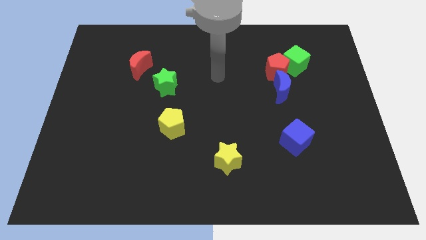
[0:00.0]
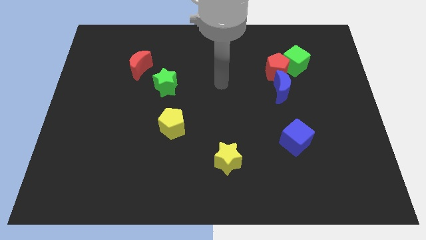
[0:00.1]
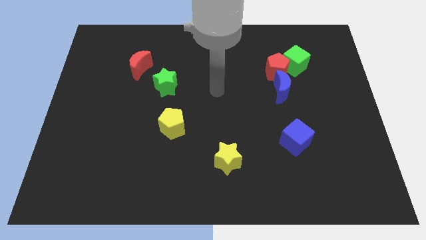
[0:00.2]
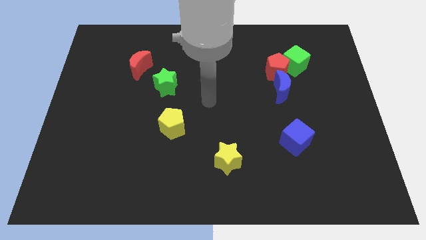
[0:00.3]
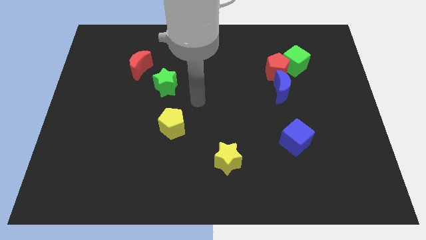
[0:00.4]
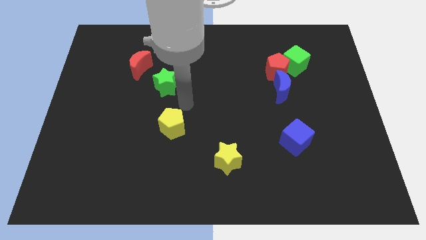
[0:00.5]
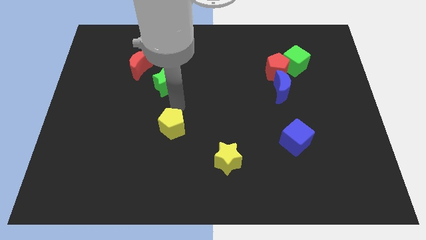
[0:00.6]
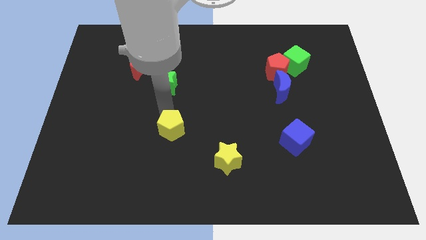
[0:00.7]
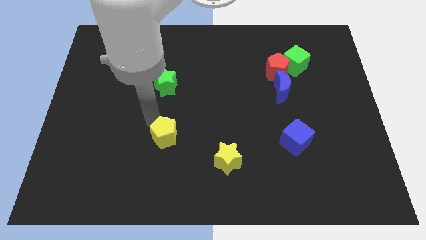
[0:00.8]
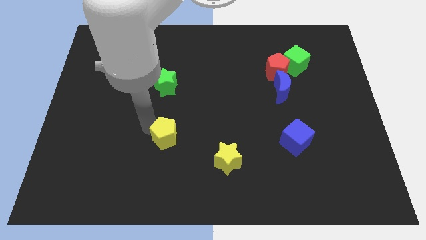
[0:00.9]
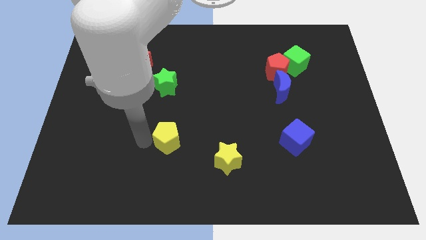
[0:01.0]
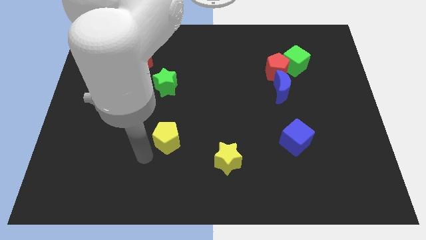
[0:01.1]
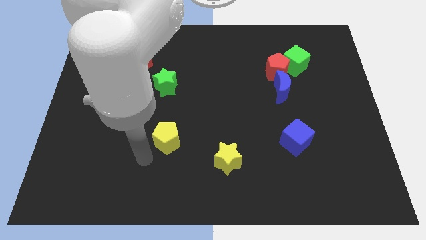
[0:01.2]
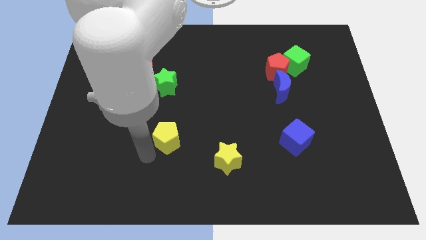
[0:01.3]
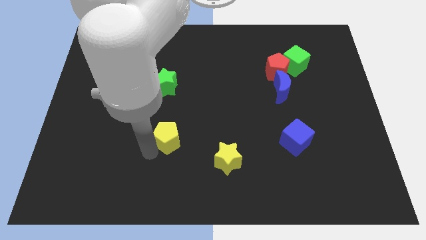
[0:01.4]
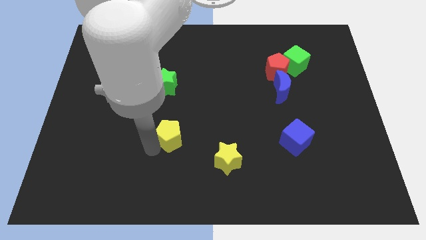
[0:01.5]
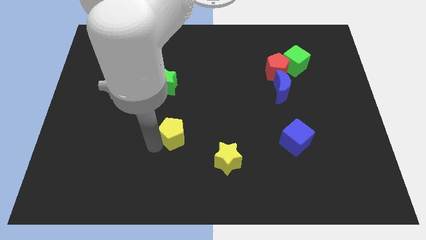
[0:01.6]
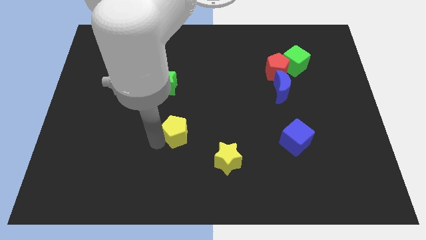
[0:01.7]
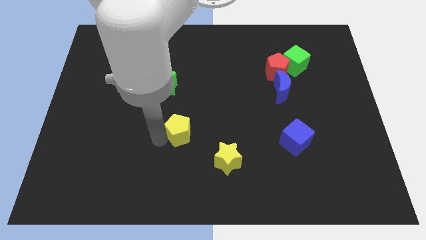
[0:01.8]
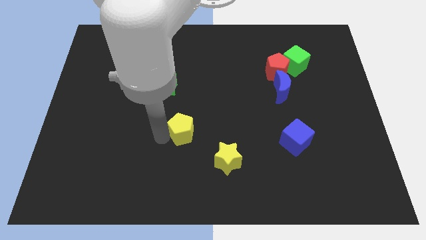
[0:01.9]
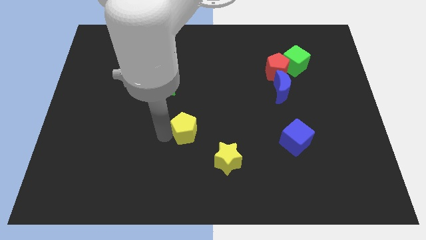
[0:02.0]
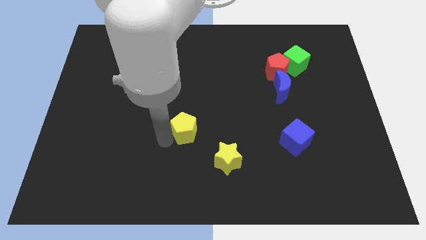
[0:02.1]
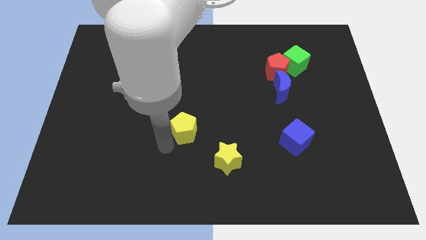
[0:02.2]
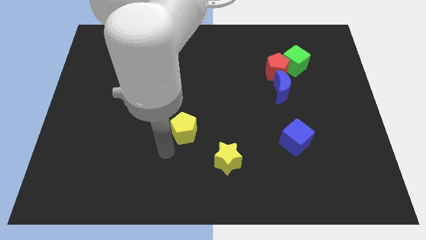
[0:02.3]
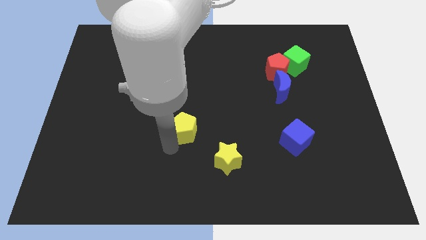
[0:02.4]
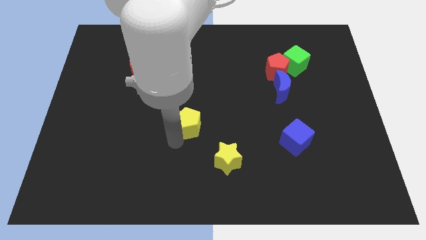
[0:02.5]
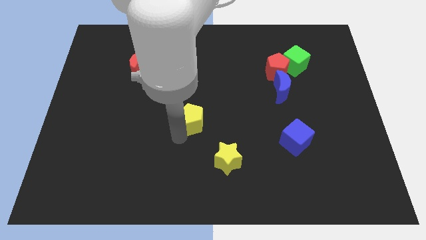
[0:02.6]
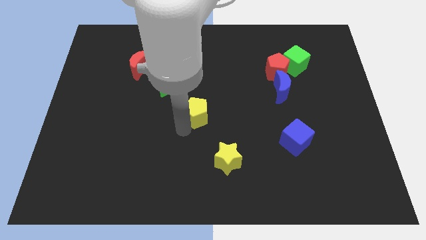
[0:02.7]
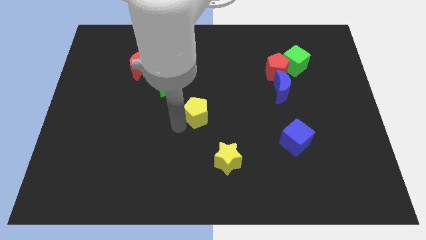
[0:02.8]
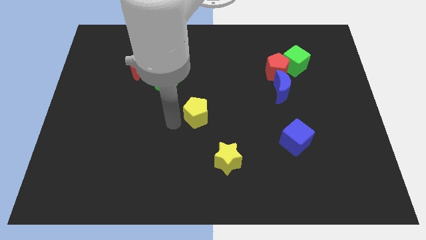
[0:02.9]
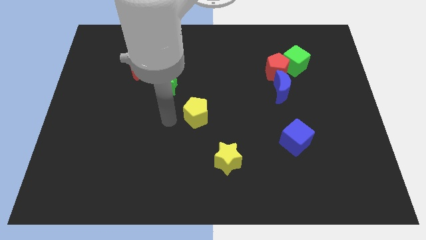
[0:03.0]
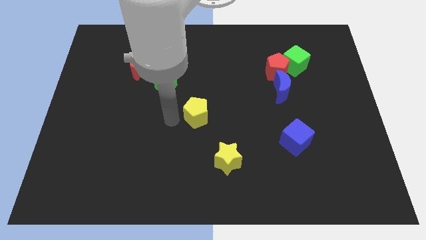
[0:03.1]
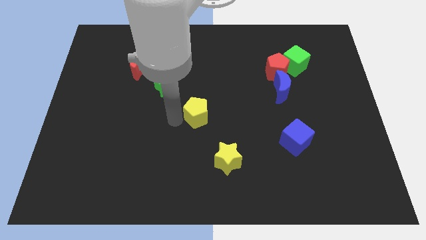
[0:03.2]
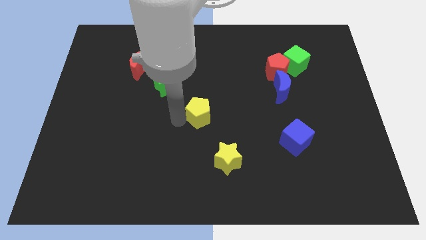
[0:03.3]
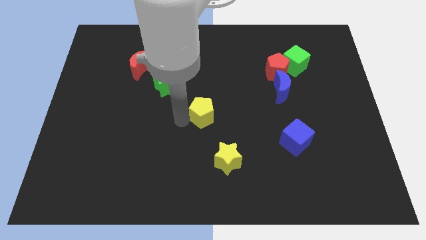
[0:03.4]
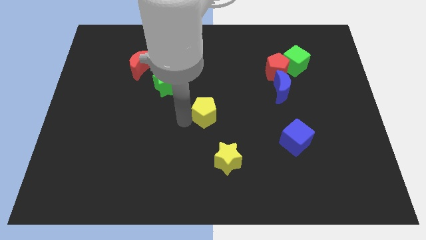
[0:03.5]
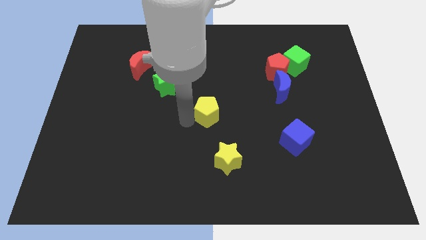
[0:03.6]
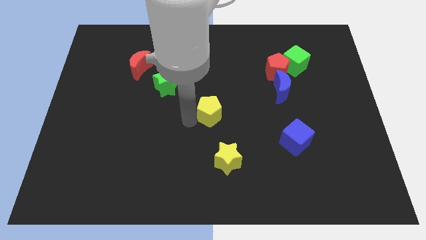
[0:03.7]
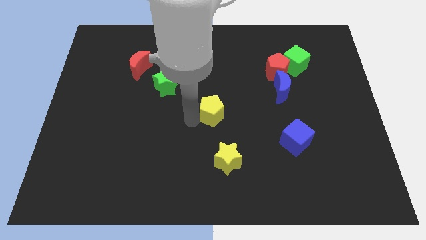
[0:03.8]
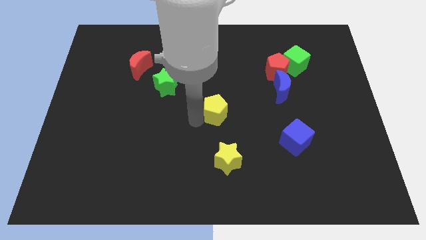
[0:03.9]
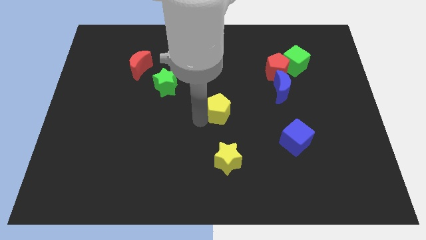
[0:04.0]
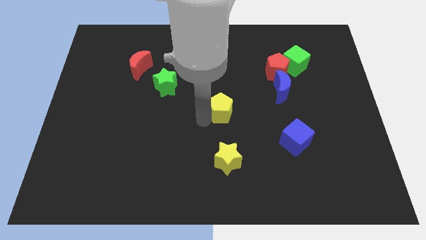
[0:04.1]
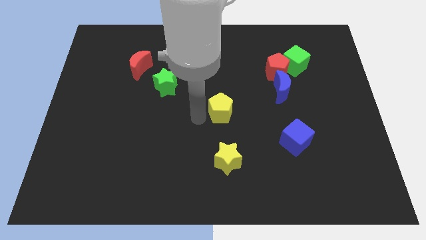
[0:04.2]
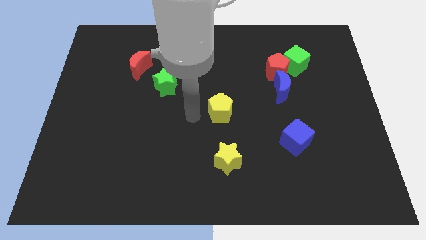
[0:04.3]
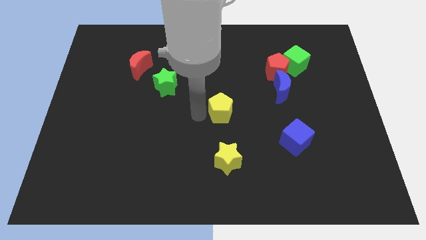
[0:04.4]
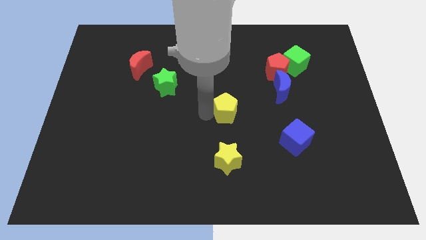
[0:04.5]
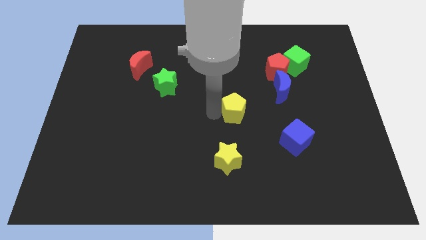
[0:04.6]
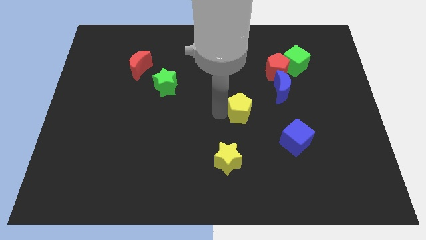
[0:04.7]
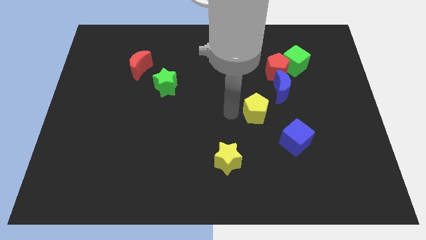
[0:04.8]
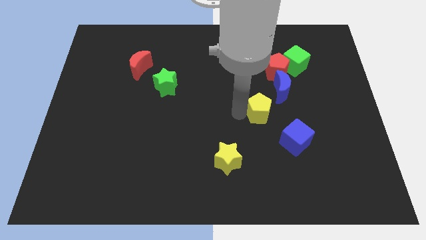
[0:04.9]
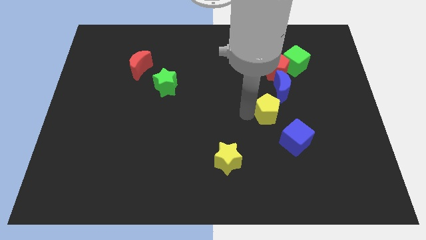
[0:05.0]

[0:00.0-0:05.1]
put the yellow pentagon to the bottom side of the red pentagon

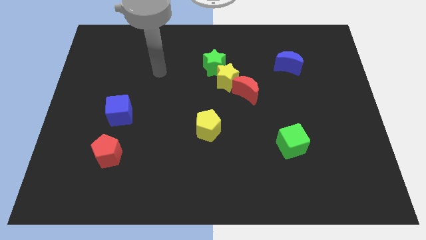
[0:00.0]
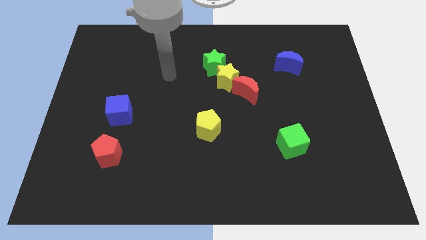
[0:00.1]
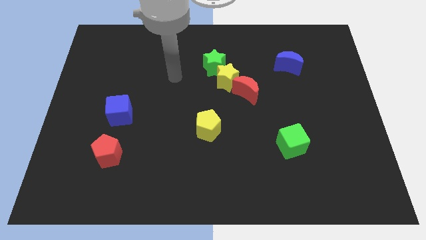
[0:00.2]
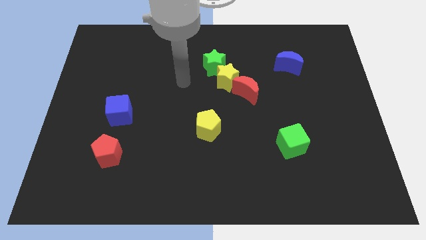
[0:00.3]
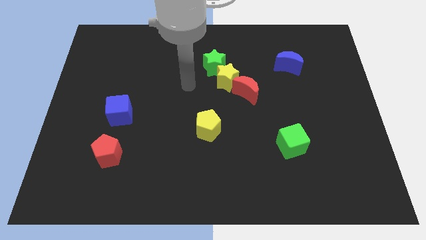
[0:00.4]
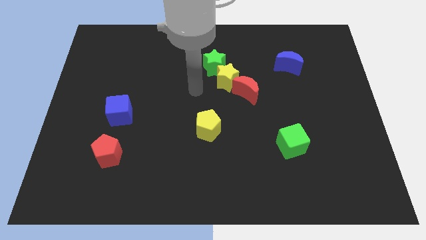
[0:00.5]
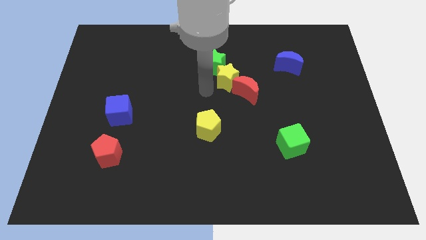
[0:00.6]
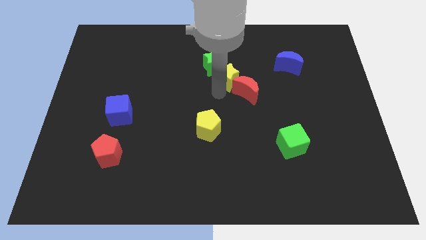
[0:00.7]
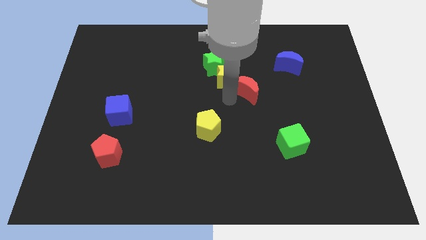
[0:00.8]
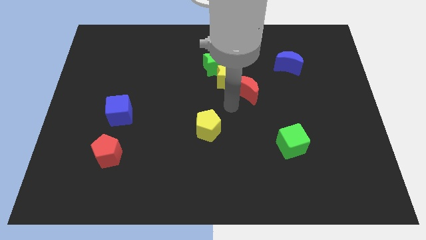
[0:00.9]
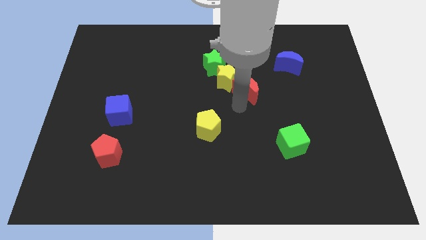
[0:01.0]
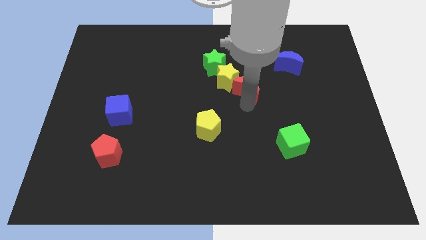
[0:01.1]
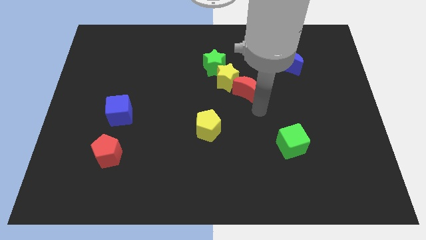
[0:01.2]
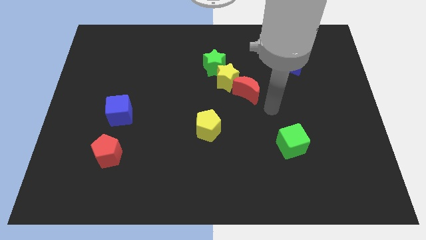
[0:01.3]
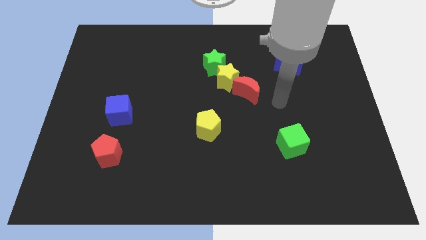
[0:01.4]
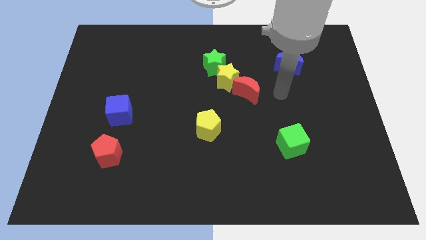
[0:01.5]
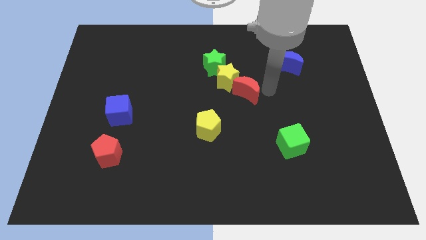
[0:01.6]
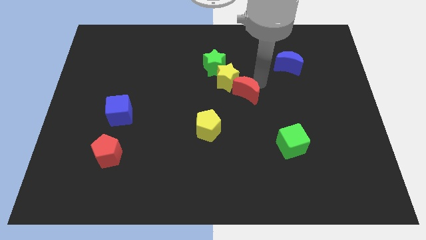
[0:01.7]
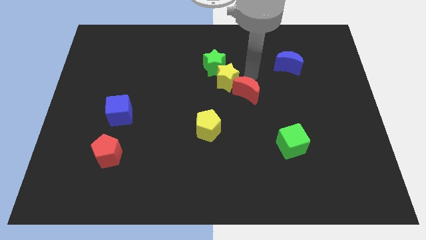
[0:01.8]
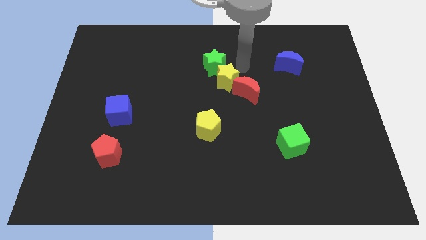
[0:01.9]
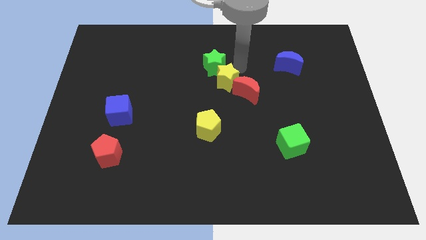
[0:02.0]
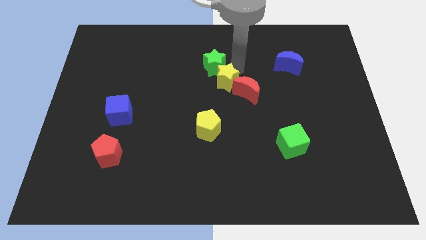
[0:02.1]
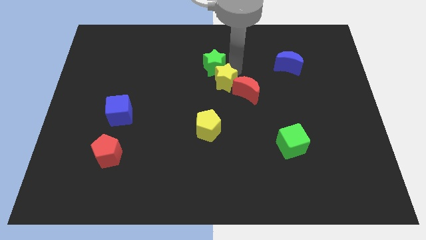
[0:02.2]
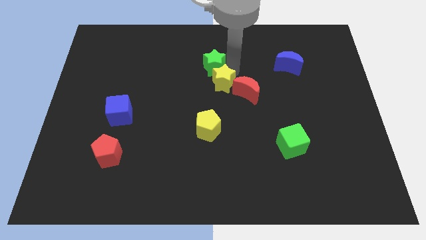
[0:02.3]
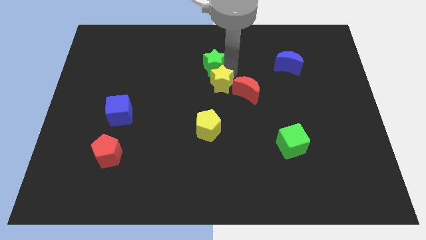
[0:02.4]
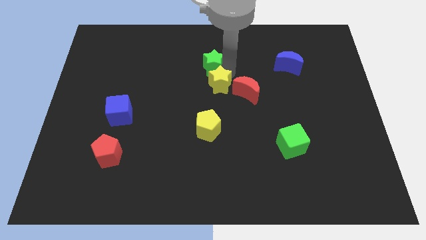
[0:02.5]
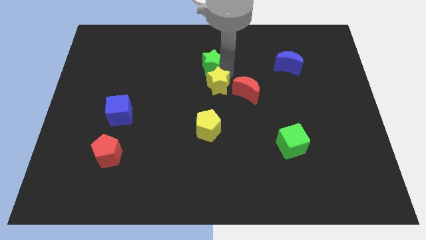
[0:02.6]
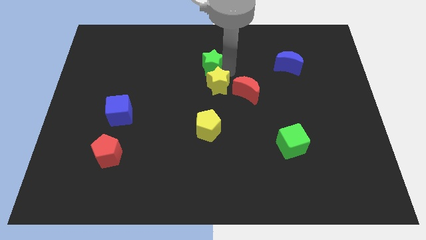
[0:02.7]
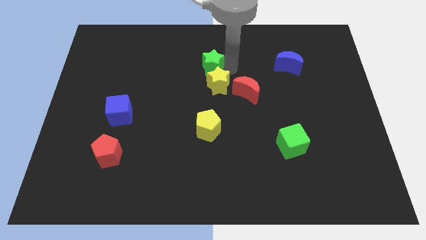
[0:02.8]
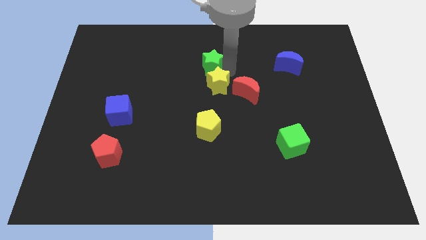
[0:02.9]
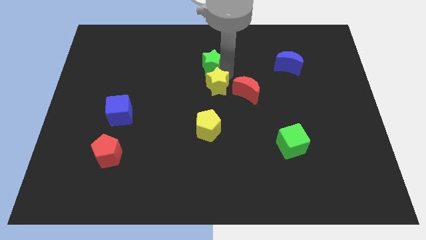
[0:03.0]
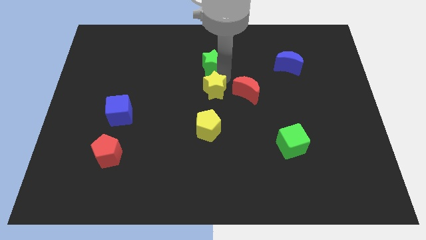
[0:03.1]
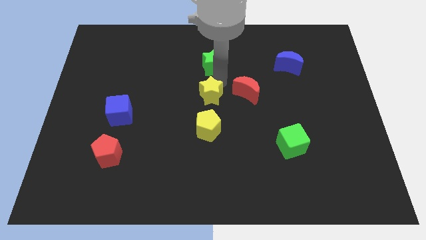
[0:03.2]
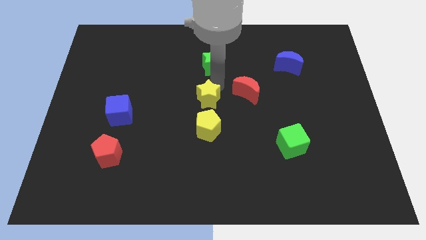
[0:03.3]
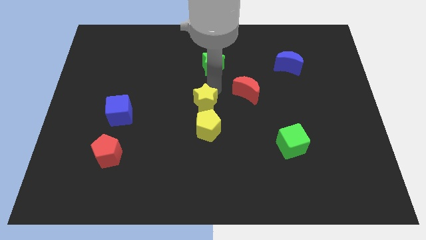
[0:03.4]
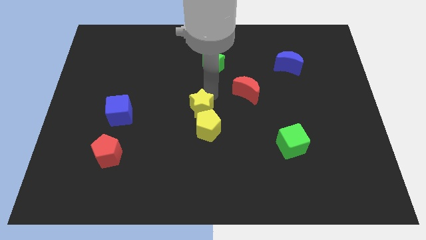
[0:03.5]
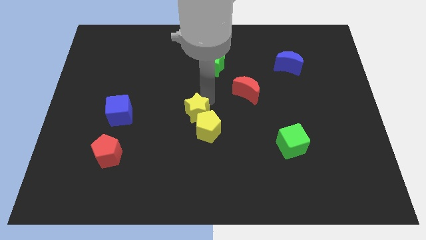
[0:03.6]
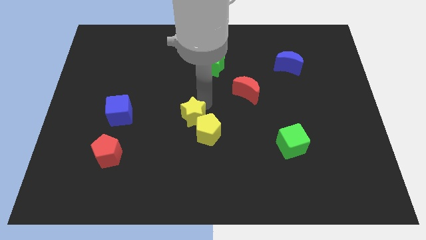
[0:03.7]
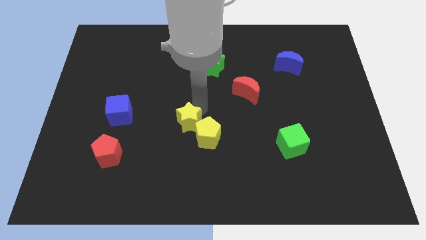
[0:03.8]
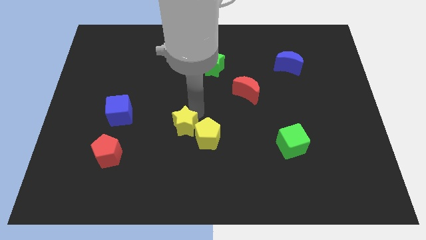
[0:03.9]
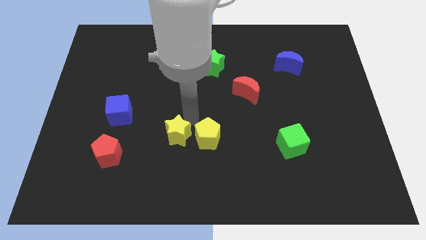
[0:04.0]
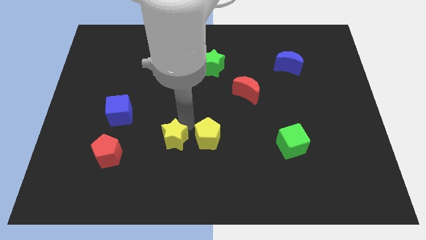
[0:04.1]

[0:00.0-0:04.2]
put the yellow star just right of the red pentagon
